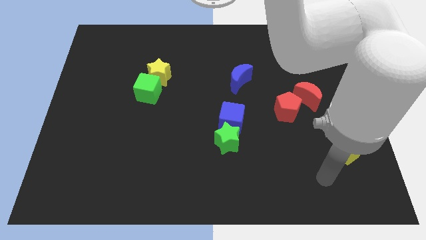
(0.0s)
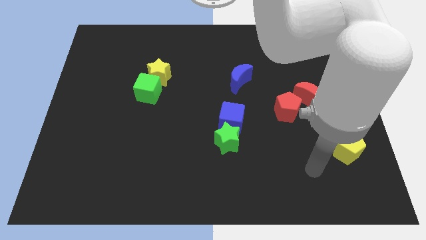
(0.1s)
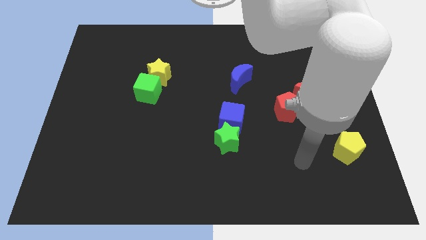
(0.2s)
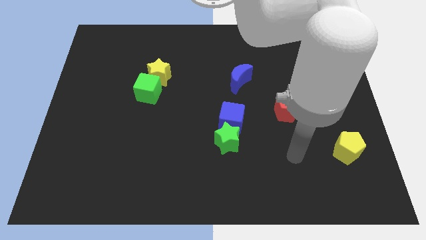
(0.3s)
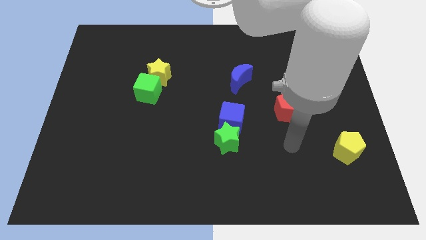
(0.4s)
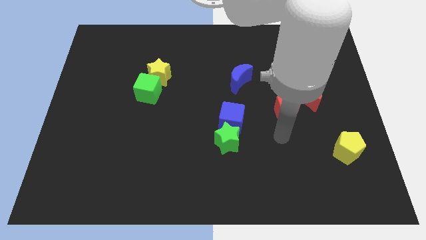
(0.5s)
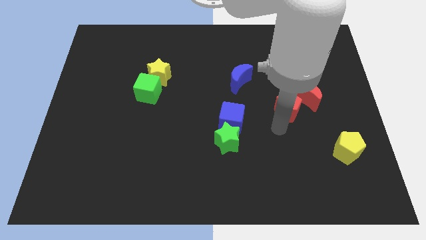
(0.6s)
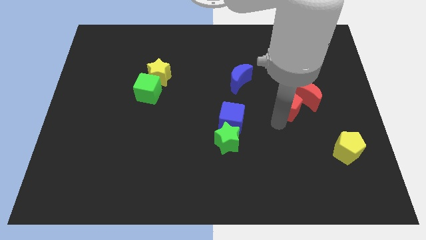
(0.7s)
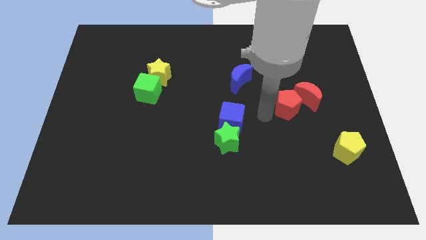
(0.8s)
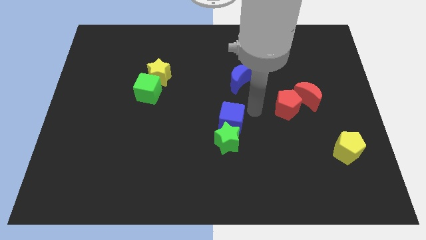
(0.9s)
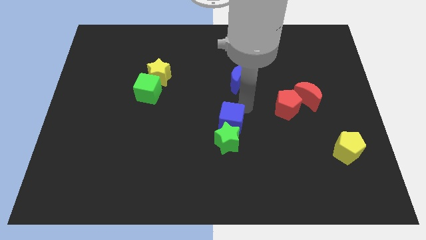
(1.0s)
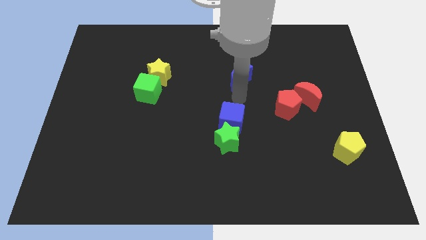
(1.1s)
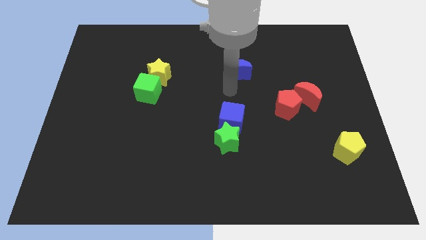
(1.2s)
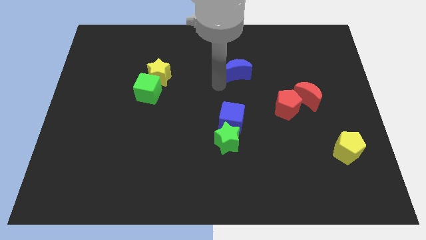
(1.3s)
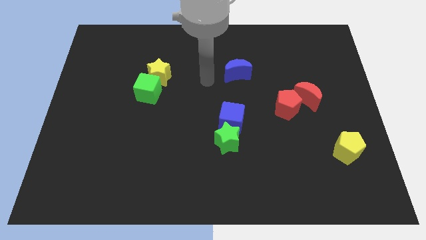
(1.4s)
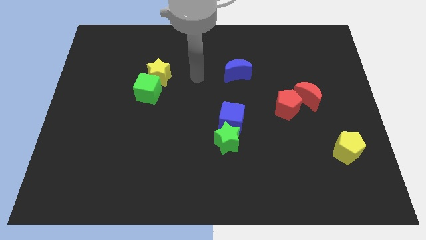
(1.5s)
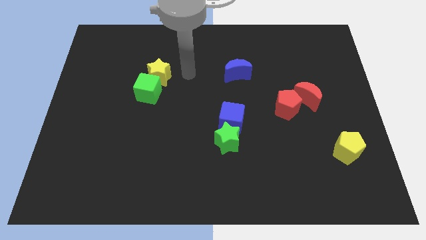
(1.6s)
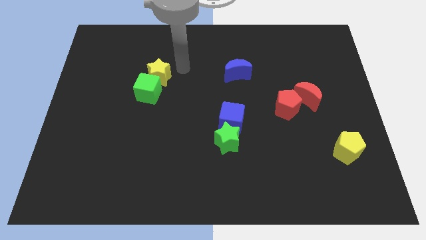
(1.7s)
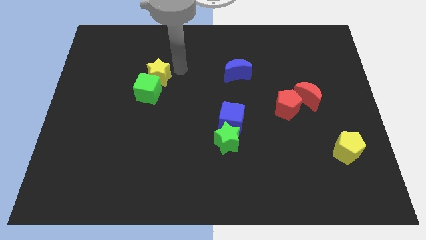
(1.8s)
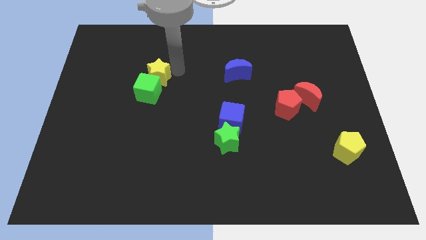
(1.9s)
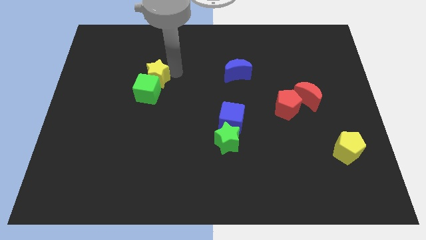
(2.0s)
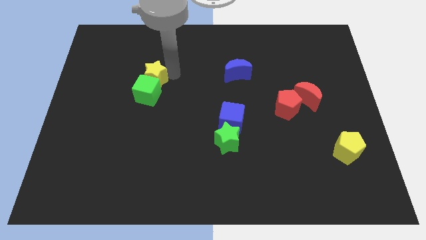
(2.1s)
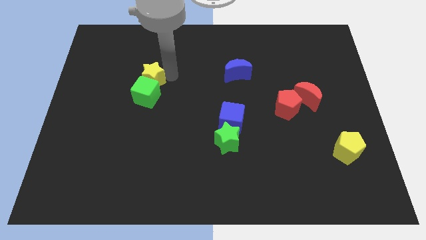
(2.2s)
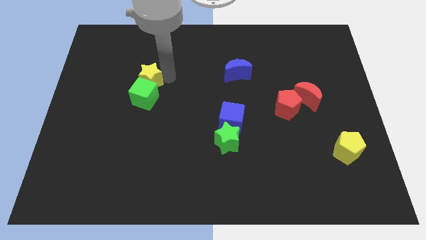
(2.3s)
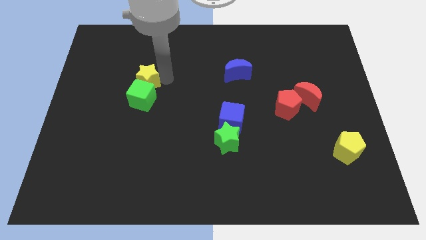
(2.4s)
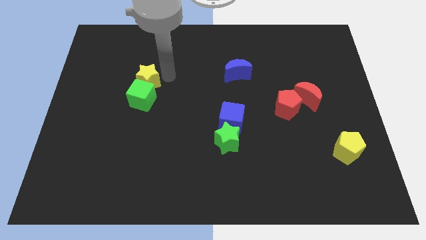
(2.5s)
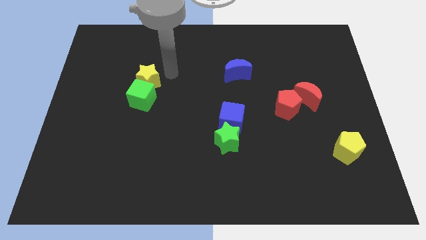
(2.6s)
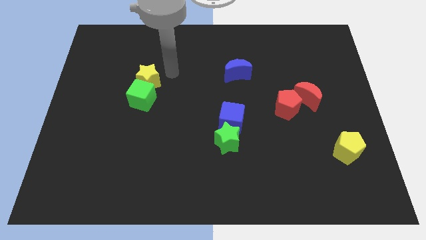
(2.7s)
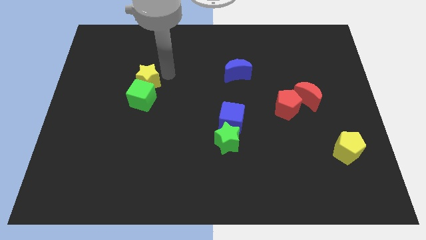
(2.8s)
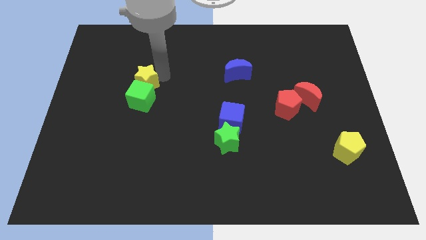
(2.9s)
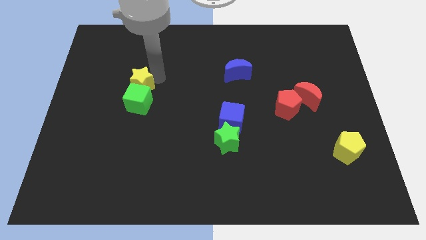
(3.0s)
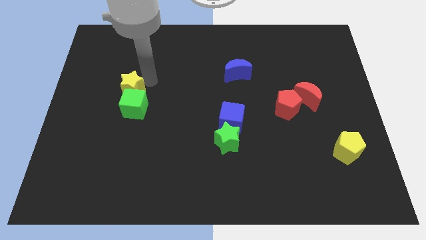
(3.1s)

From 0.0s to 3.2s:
slide the yellow star a bit diagonally down and to the left

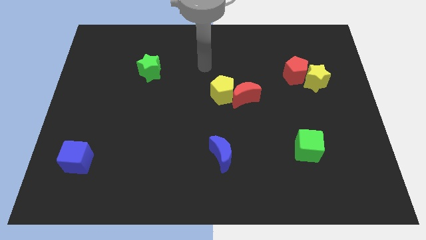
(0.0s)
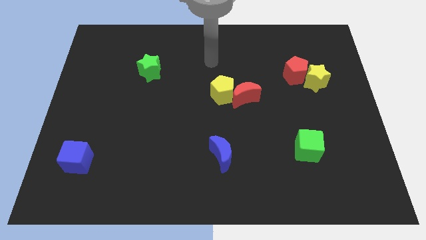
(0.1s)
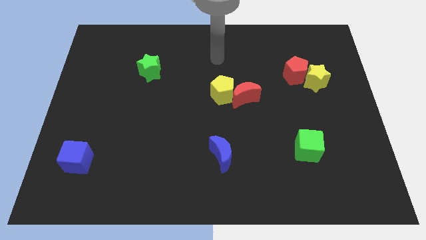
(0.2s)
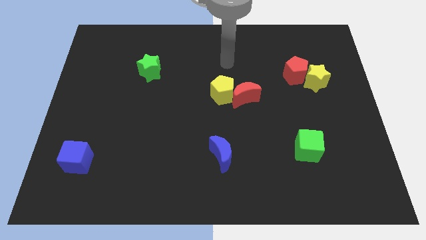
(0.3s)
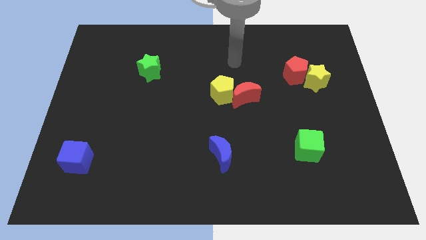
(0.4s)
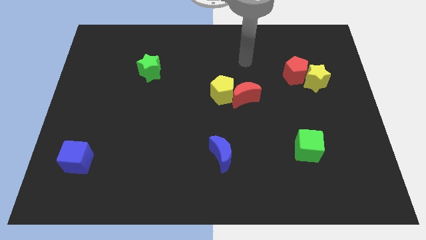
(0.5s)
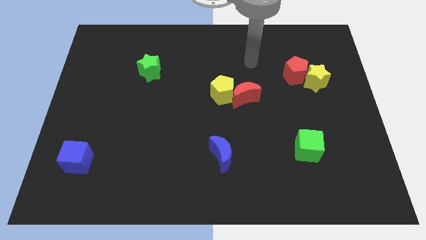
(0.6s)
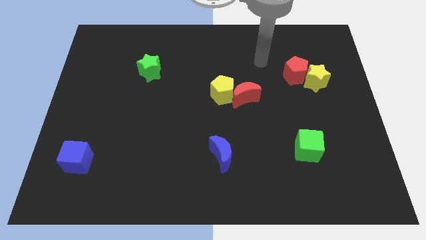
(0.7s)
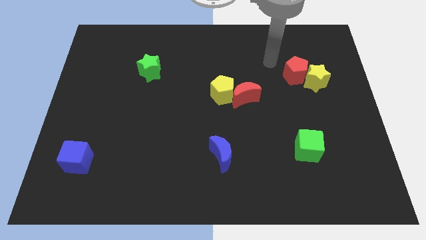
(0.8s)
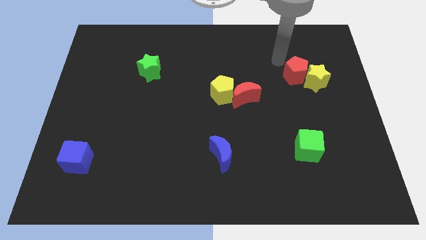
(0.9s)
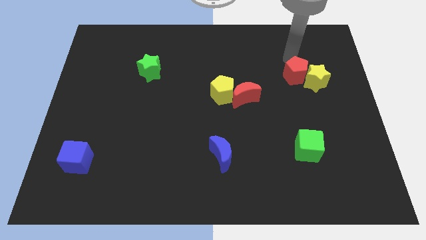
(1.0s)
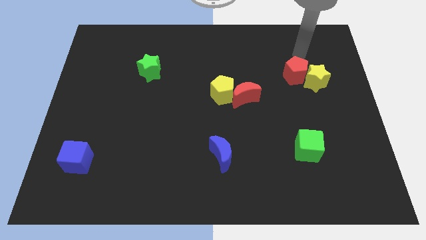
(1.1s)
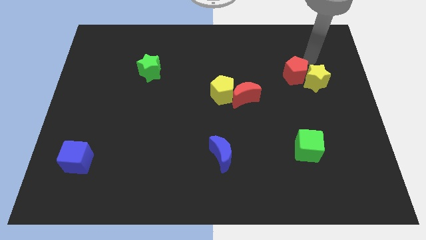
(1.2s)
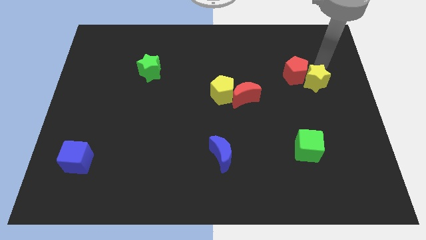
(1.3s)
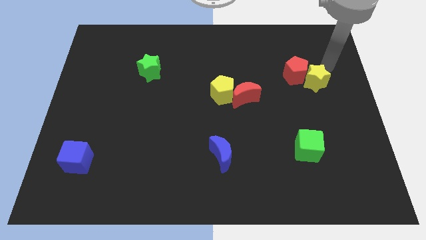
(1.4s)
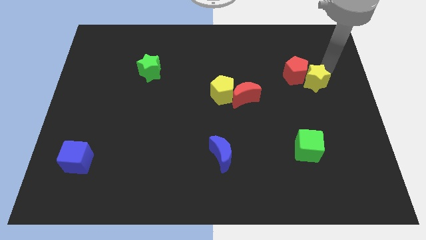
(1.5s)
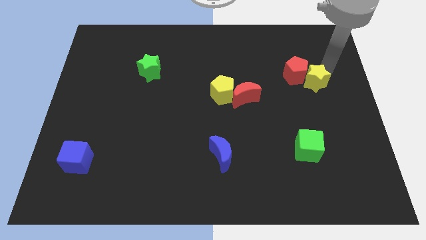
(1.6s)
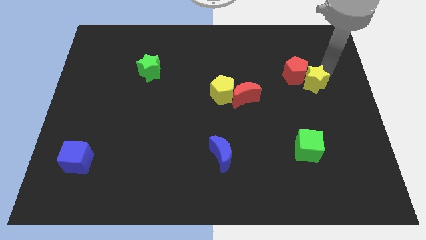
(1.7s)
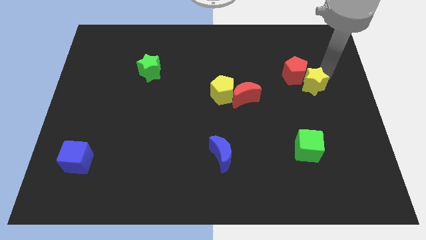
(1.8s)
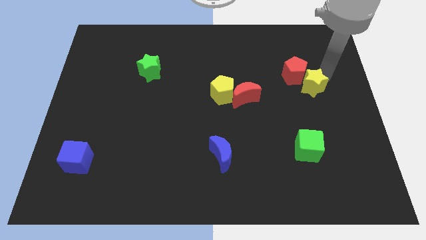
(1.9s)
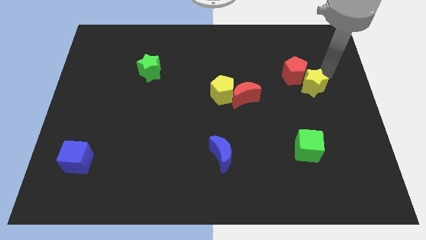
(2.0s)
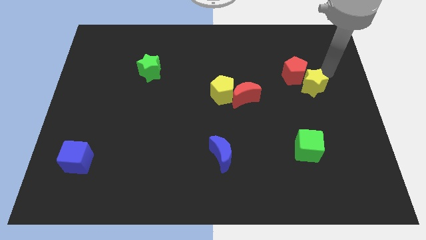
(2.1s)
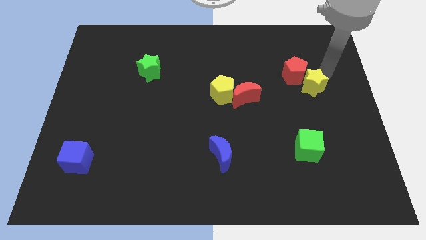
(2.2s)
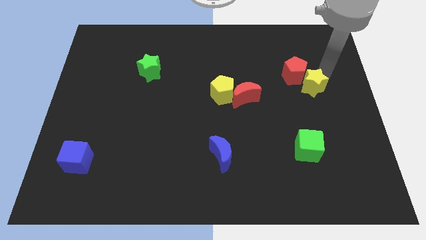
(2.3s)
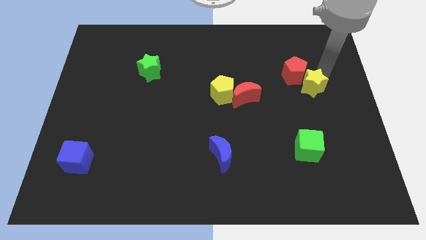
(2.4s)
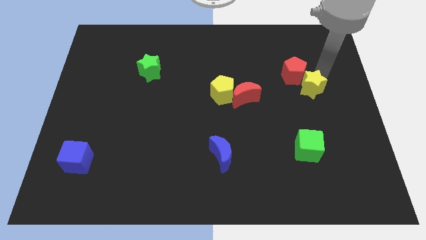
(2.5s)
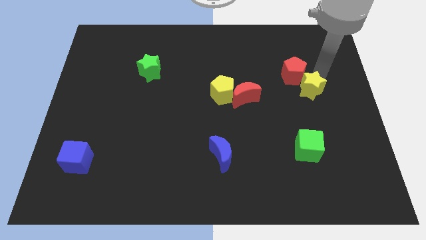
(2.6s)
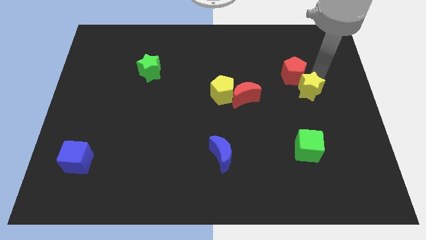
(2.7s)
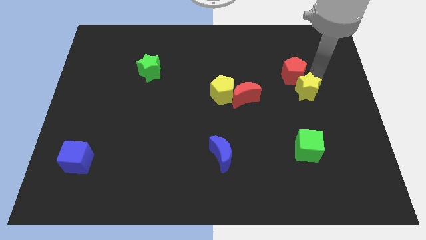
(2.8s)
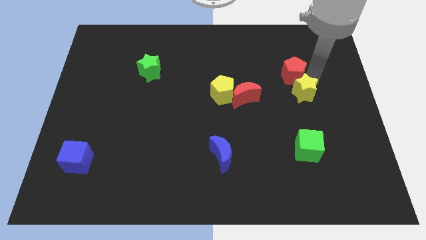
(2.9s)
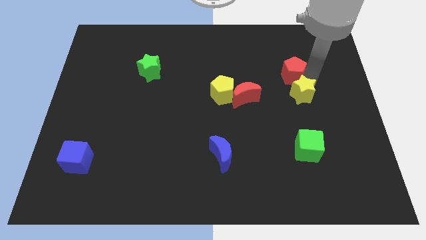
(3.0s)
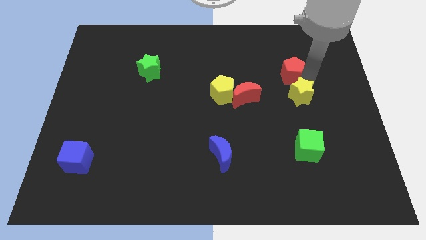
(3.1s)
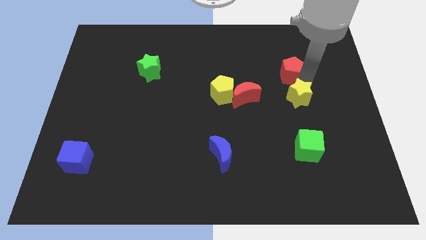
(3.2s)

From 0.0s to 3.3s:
slightly push the yellow star down and left

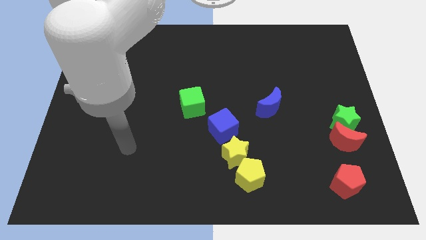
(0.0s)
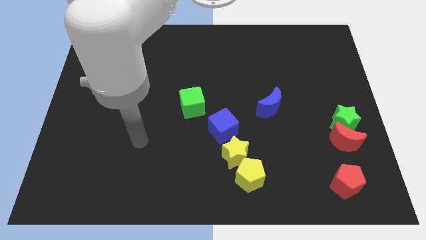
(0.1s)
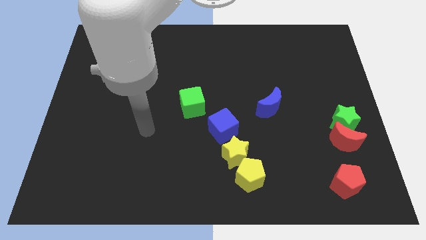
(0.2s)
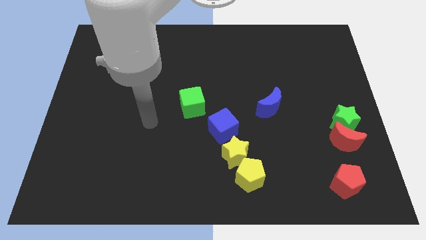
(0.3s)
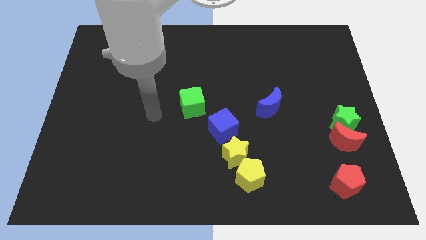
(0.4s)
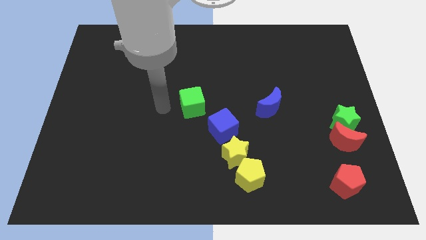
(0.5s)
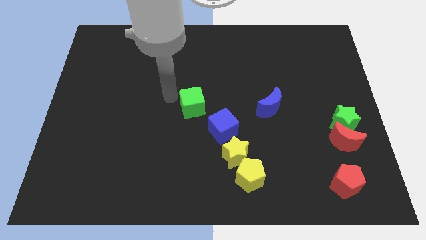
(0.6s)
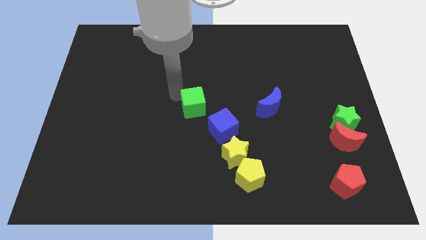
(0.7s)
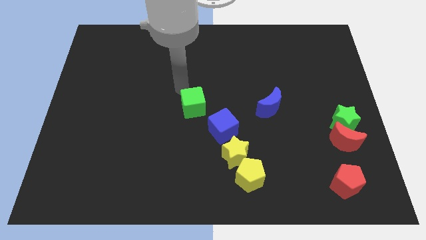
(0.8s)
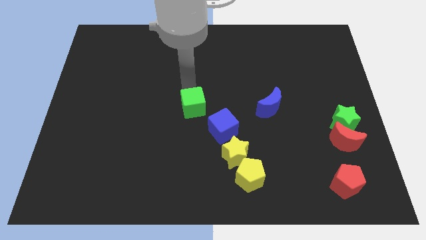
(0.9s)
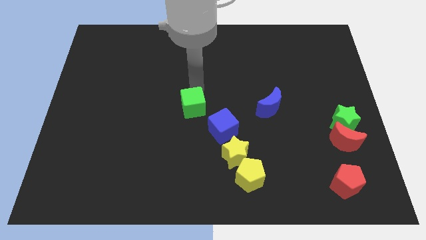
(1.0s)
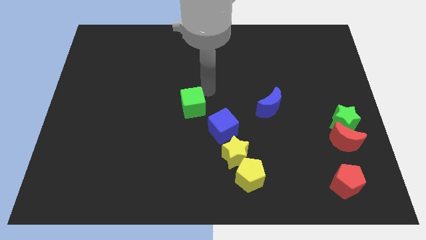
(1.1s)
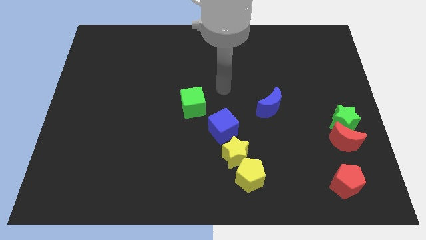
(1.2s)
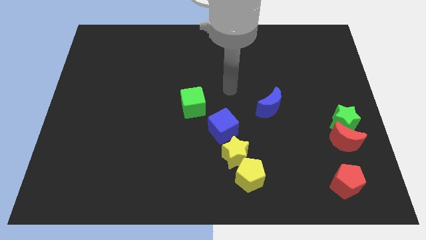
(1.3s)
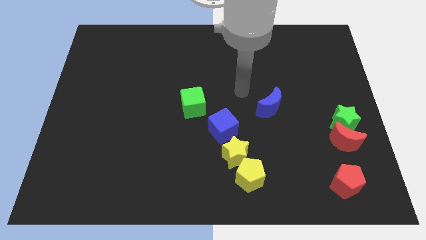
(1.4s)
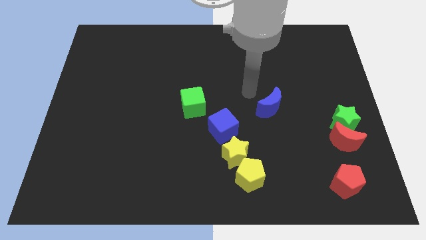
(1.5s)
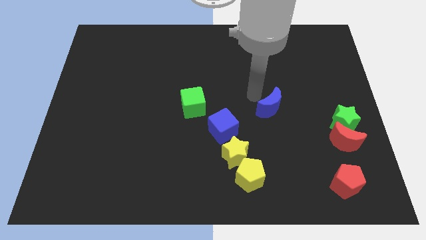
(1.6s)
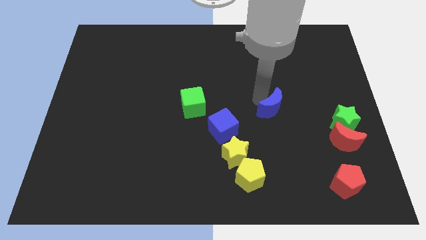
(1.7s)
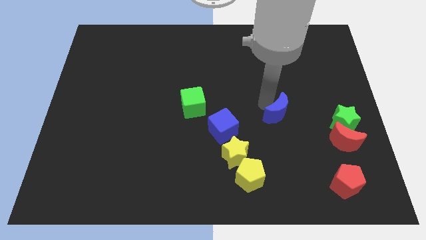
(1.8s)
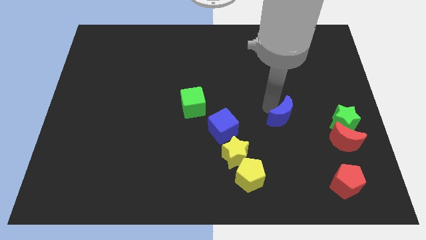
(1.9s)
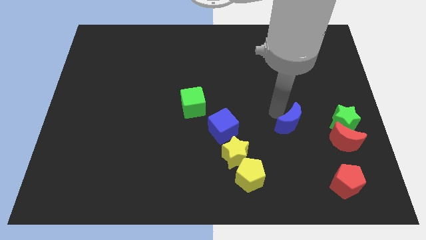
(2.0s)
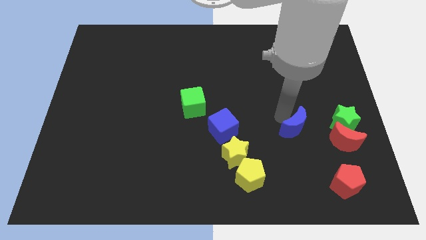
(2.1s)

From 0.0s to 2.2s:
push the blue moon down and then to the right a little
